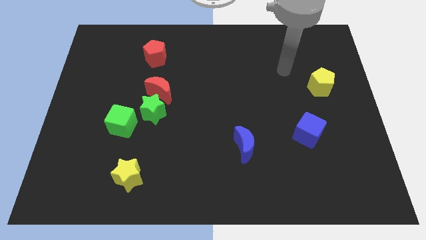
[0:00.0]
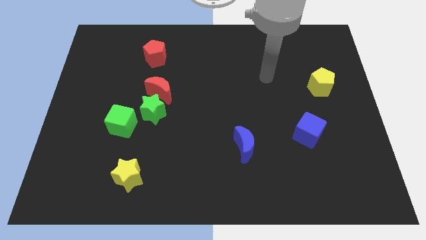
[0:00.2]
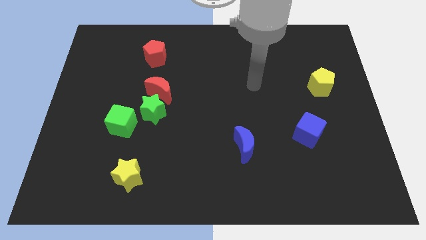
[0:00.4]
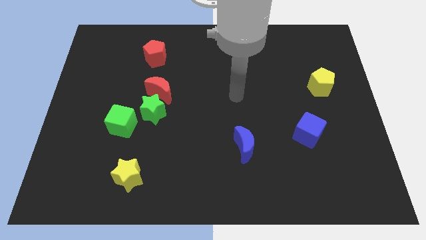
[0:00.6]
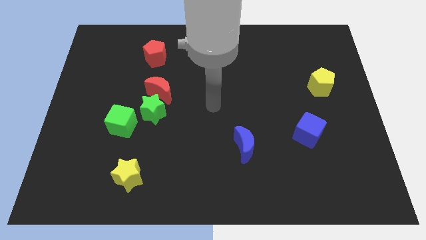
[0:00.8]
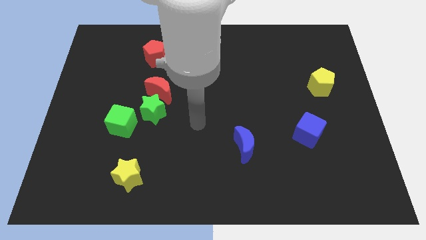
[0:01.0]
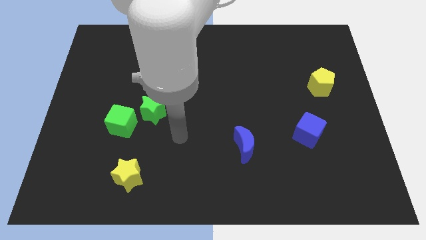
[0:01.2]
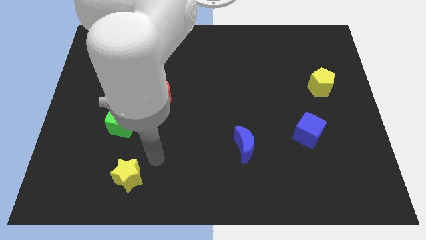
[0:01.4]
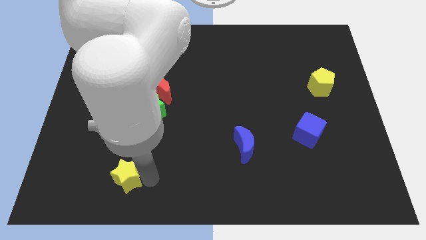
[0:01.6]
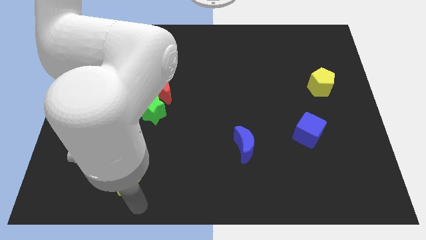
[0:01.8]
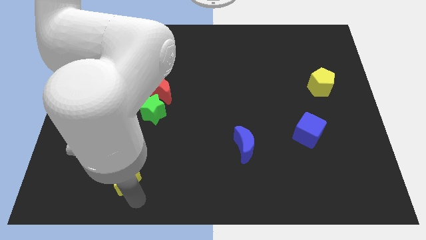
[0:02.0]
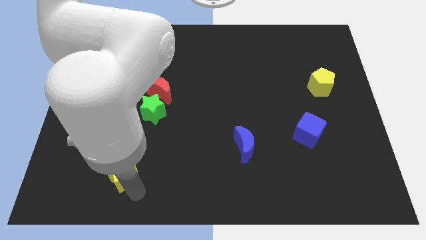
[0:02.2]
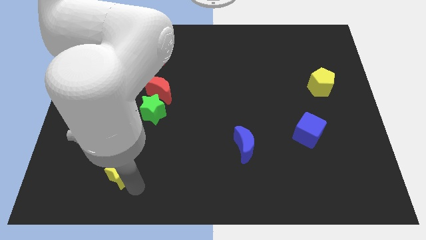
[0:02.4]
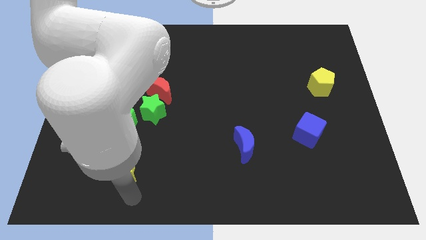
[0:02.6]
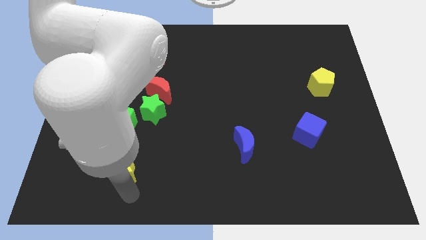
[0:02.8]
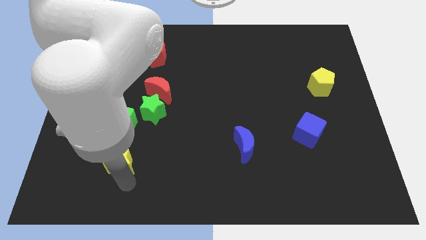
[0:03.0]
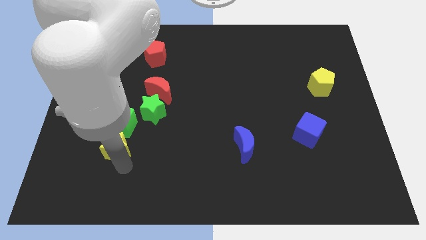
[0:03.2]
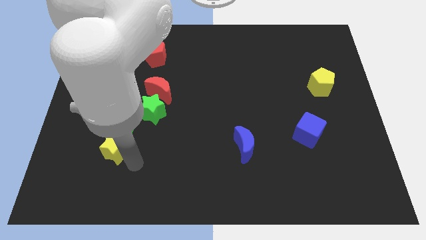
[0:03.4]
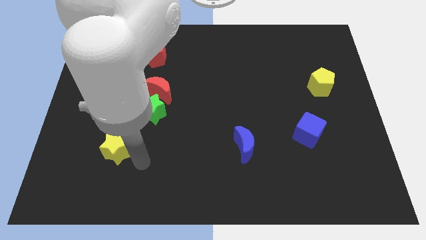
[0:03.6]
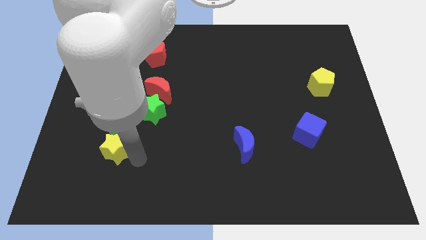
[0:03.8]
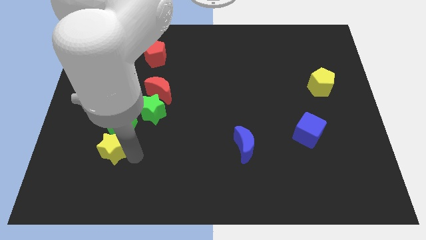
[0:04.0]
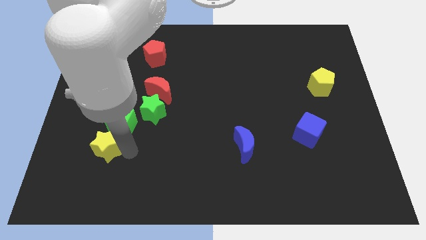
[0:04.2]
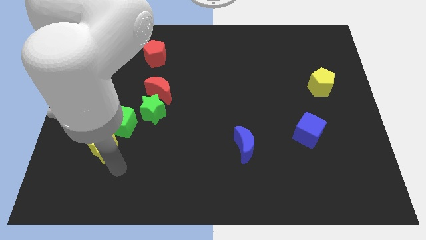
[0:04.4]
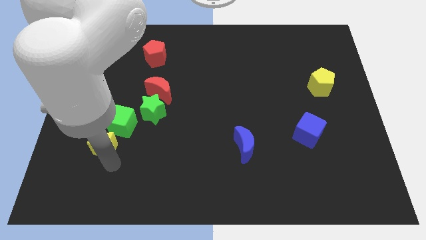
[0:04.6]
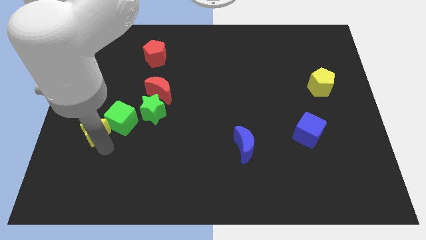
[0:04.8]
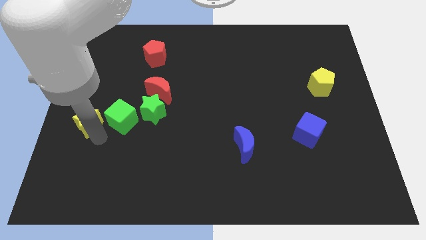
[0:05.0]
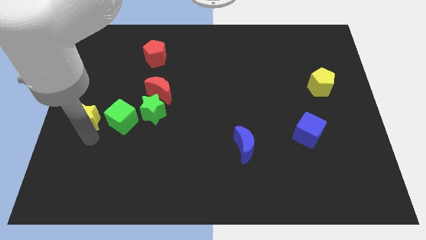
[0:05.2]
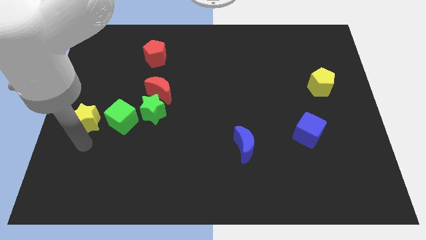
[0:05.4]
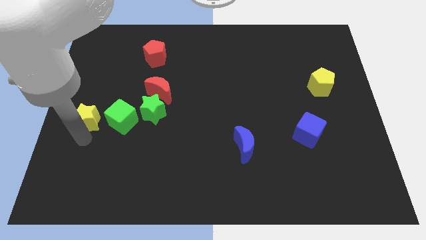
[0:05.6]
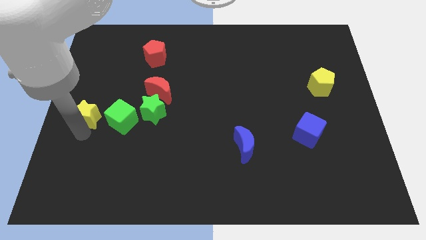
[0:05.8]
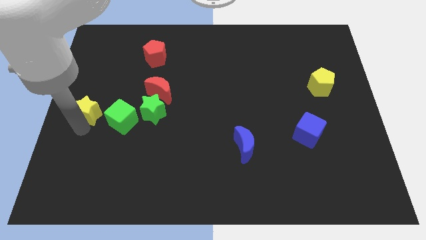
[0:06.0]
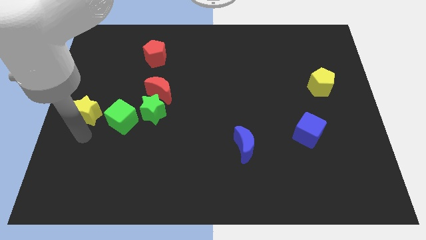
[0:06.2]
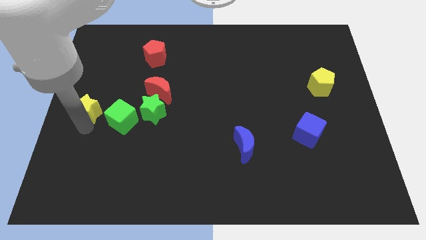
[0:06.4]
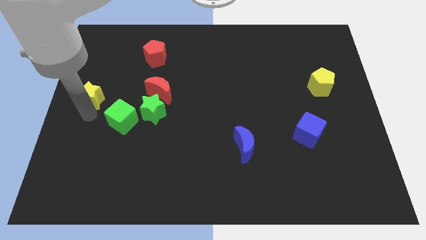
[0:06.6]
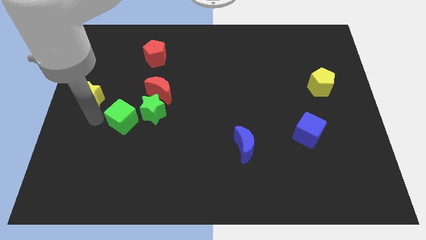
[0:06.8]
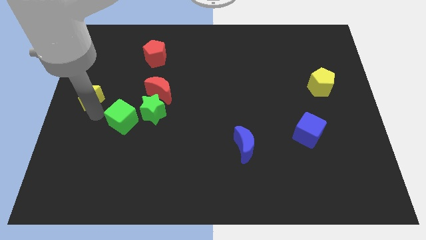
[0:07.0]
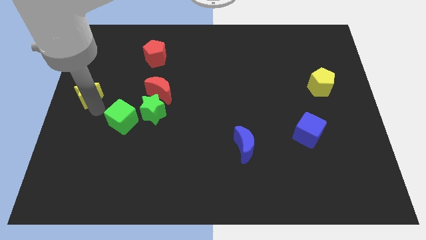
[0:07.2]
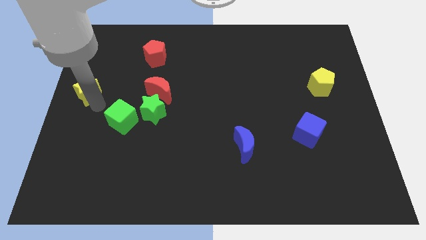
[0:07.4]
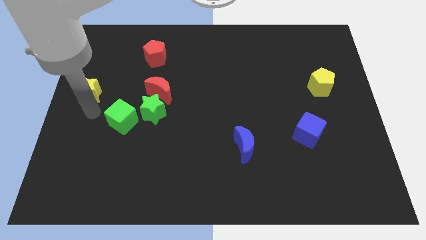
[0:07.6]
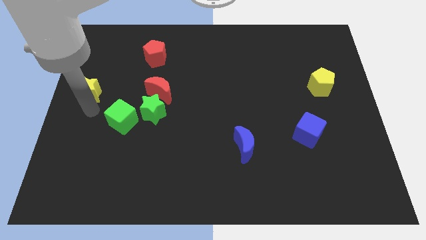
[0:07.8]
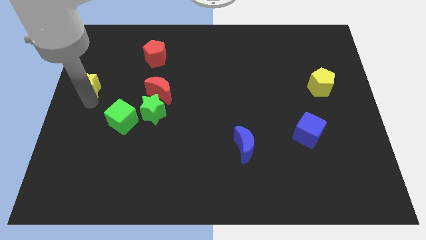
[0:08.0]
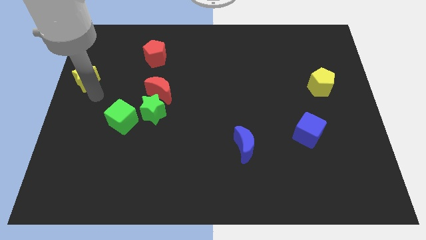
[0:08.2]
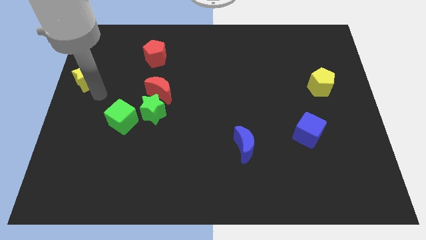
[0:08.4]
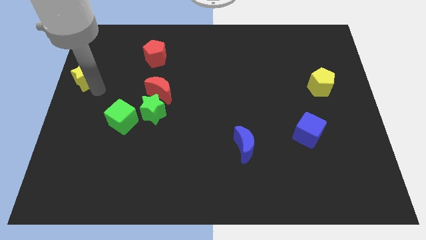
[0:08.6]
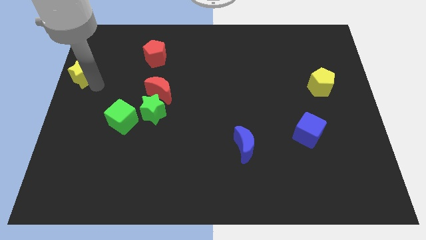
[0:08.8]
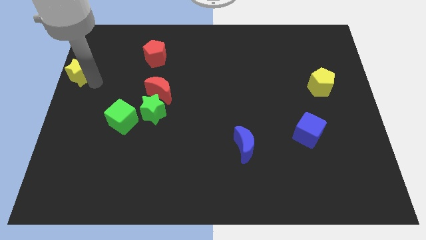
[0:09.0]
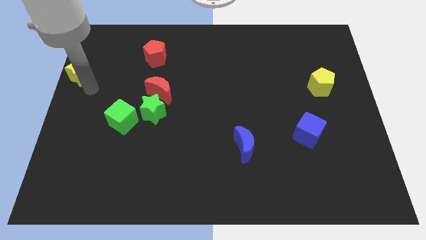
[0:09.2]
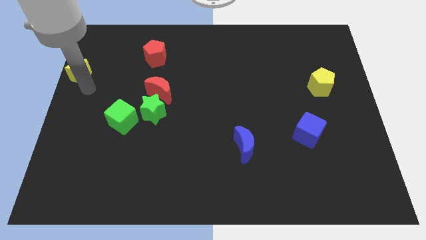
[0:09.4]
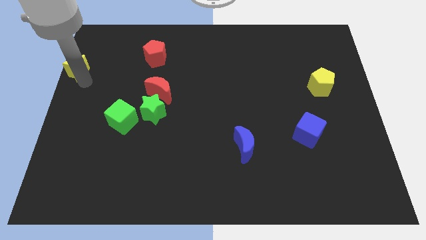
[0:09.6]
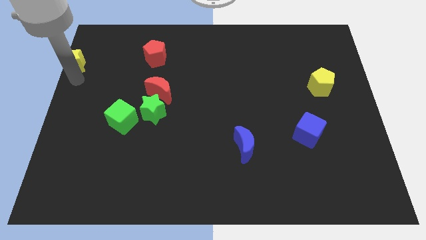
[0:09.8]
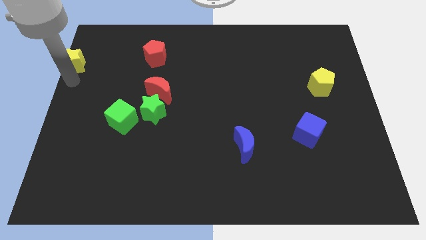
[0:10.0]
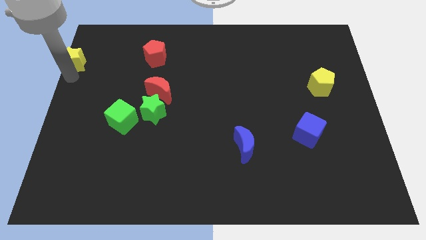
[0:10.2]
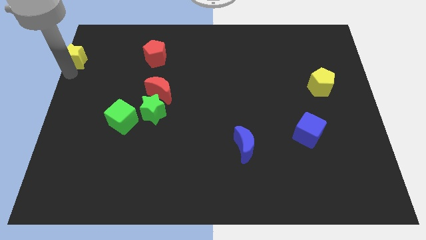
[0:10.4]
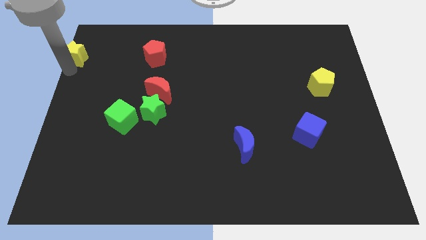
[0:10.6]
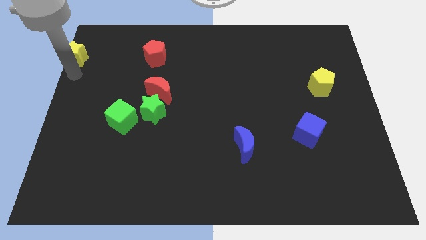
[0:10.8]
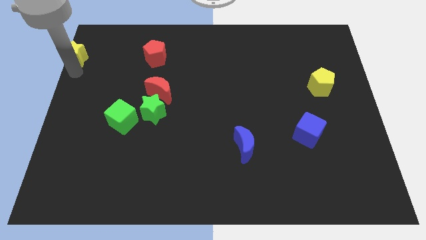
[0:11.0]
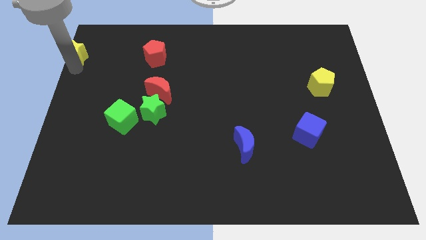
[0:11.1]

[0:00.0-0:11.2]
put the yellow star to the upper left corner

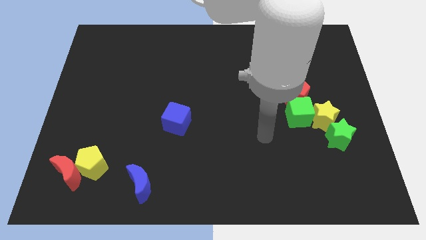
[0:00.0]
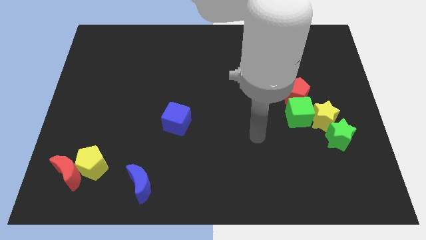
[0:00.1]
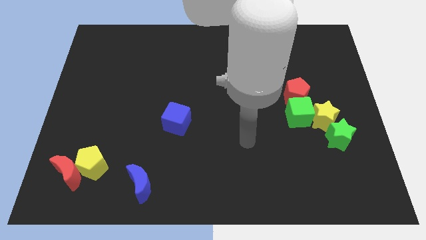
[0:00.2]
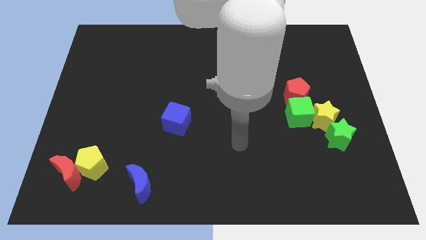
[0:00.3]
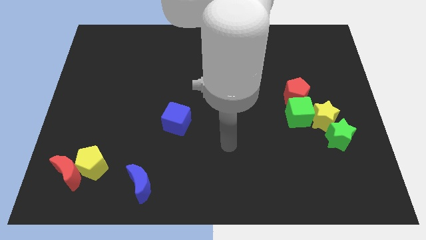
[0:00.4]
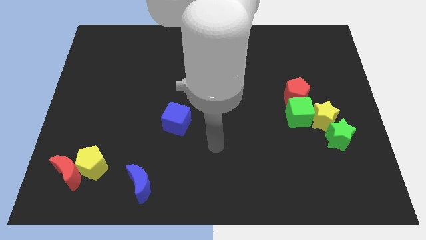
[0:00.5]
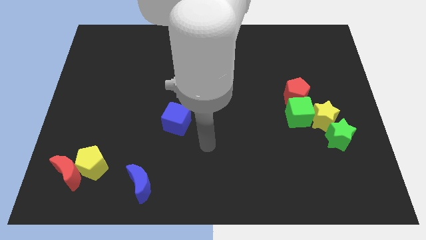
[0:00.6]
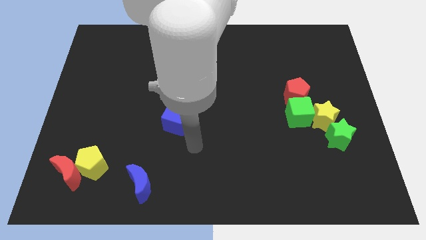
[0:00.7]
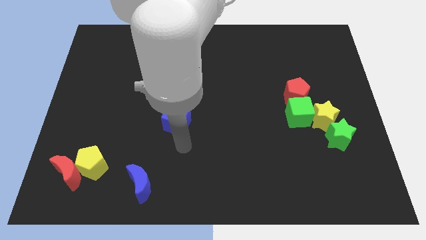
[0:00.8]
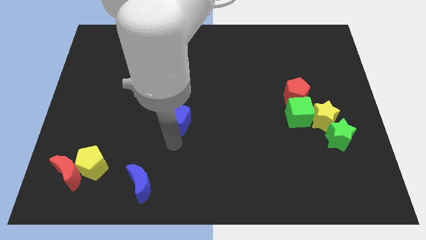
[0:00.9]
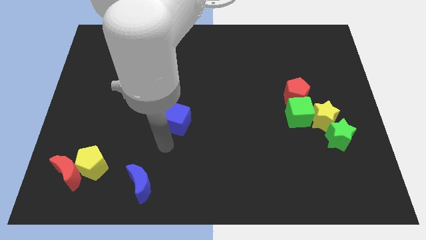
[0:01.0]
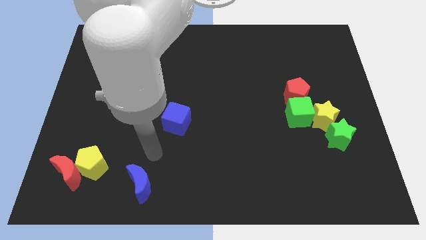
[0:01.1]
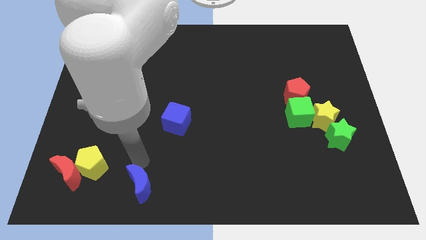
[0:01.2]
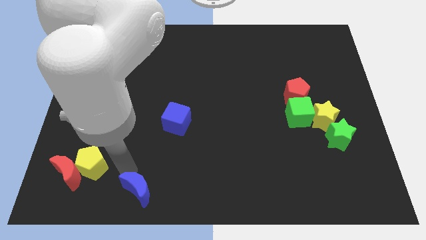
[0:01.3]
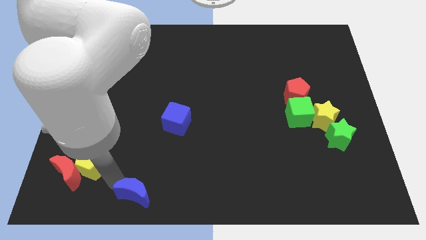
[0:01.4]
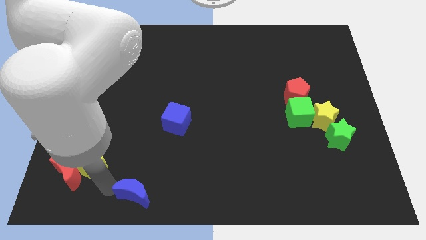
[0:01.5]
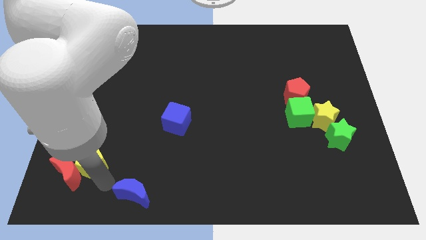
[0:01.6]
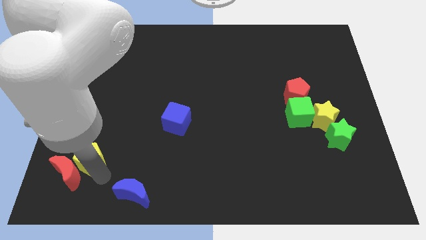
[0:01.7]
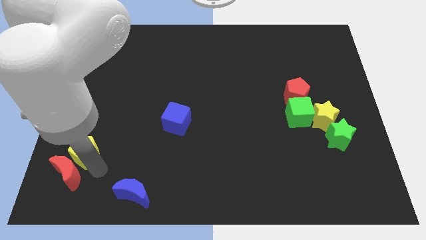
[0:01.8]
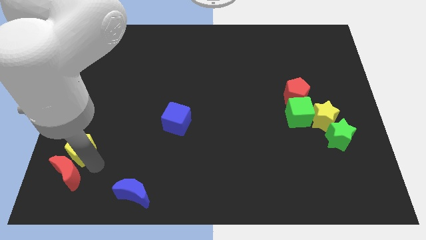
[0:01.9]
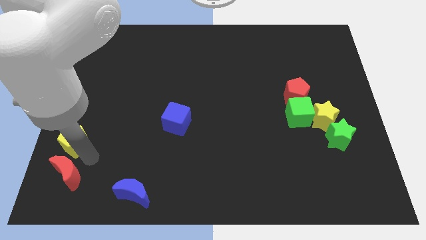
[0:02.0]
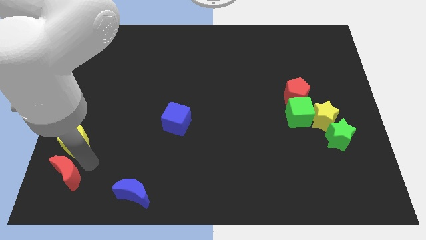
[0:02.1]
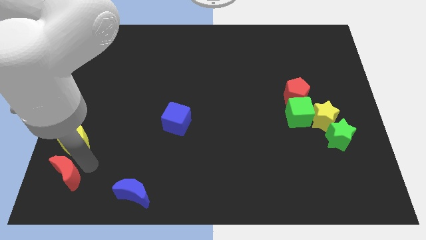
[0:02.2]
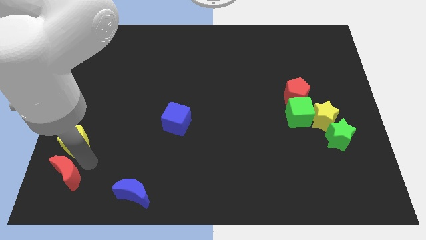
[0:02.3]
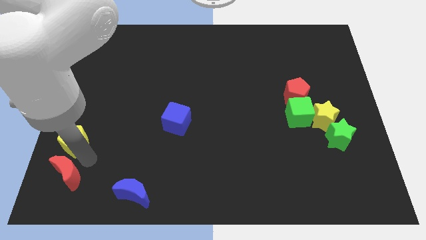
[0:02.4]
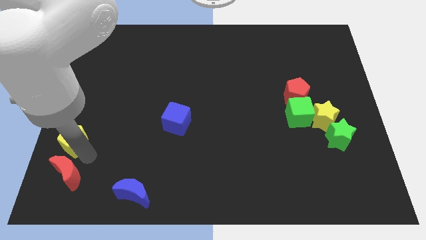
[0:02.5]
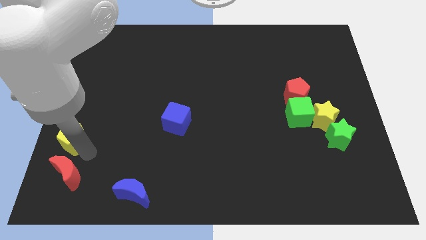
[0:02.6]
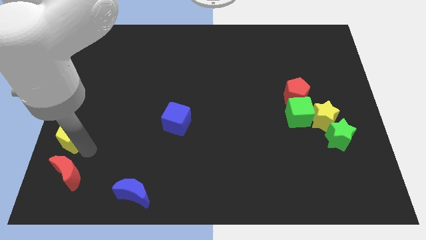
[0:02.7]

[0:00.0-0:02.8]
move the yellow pentagon to the left side of the board
